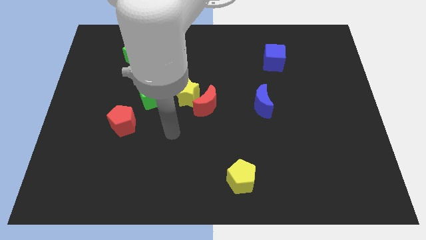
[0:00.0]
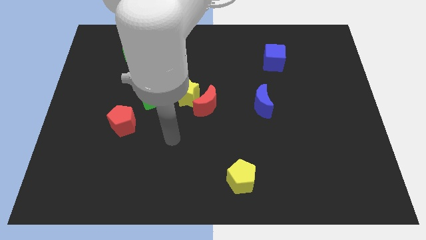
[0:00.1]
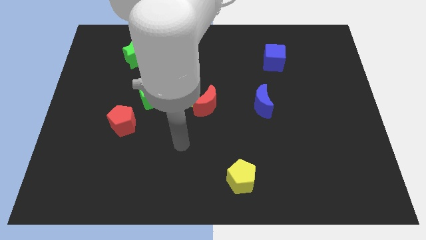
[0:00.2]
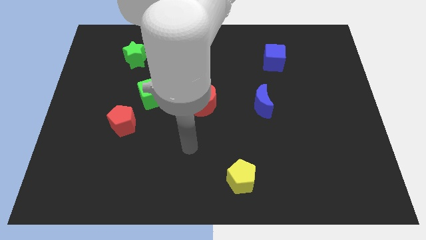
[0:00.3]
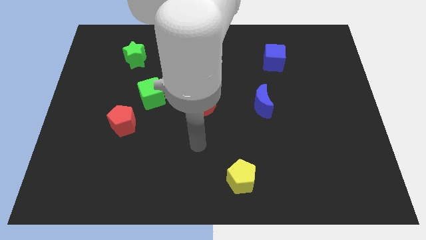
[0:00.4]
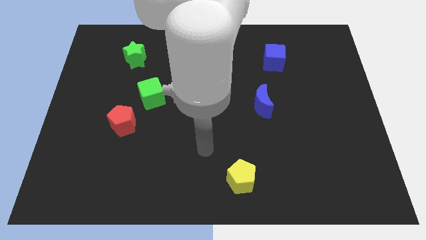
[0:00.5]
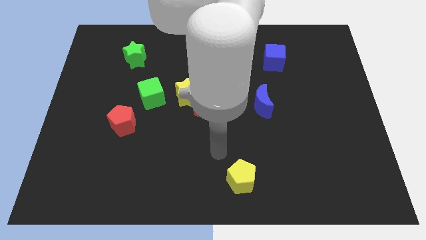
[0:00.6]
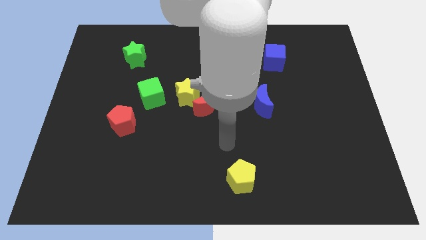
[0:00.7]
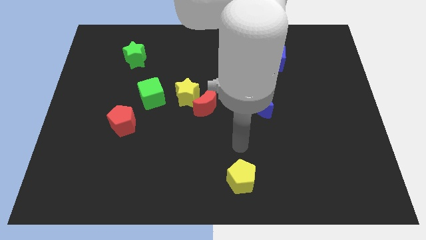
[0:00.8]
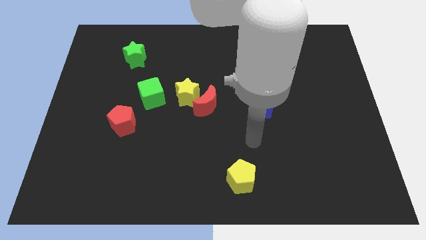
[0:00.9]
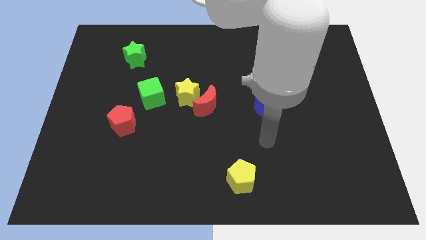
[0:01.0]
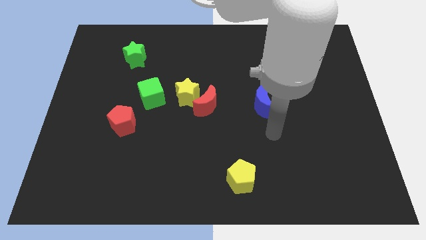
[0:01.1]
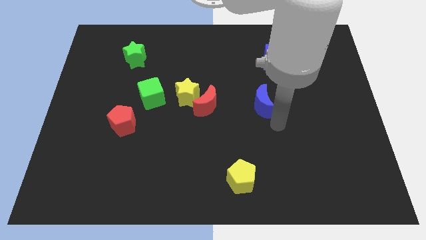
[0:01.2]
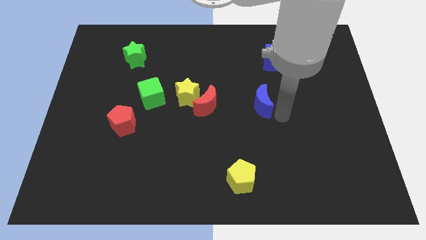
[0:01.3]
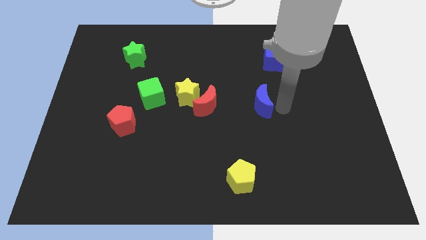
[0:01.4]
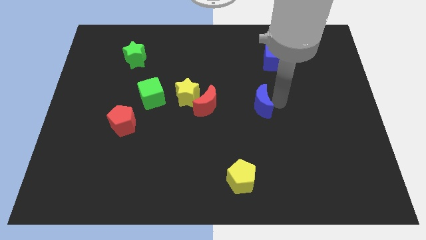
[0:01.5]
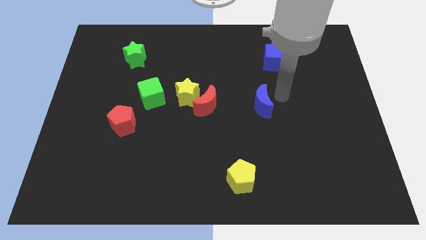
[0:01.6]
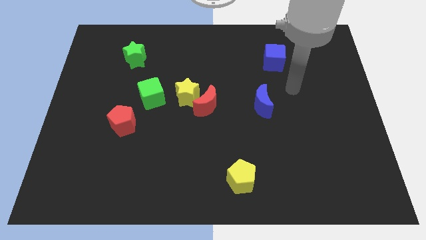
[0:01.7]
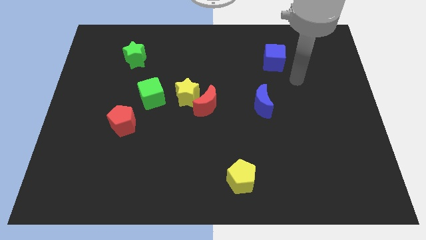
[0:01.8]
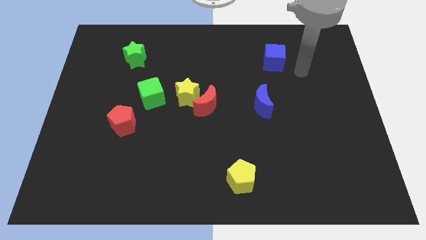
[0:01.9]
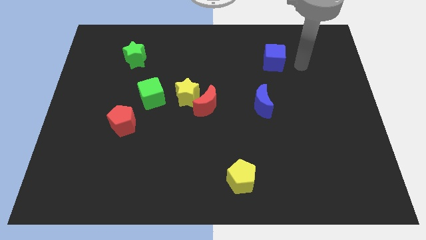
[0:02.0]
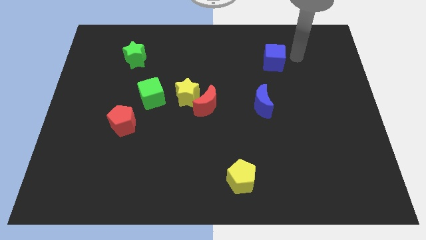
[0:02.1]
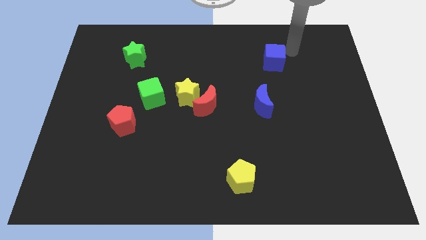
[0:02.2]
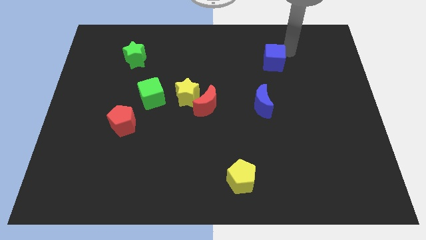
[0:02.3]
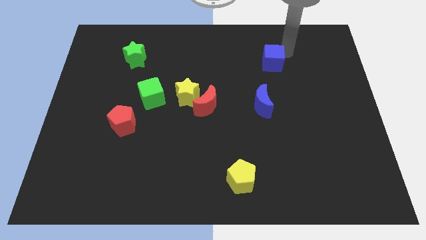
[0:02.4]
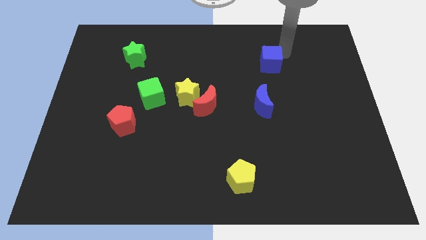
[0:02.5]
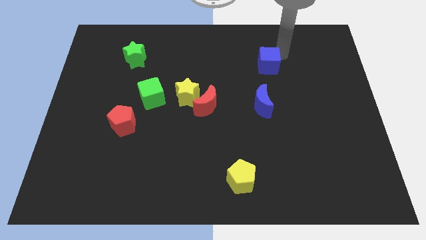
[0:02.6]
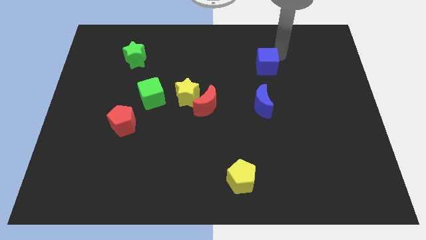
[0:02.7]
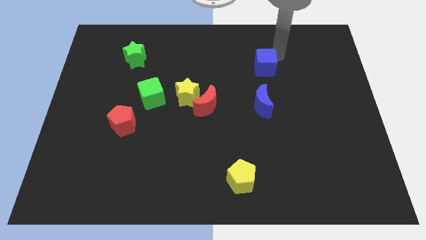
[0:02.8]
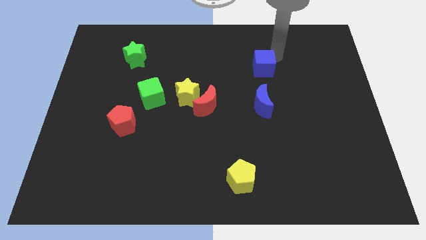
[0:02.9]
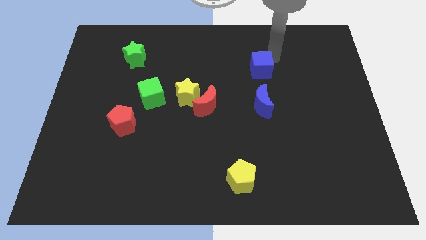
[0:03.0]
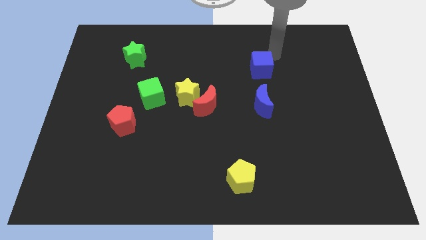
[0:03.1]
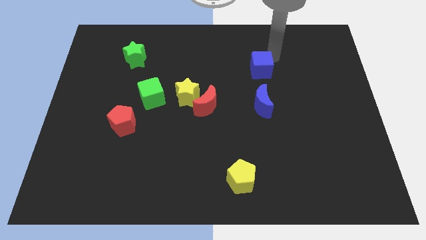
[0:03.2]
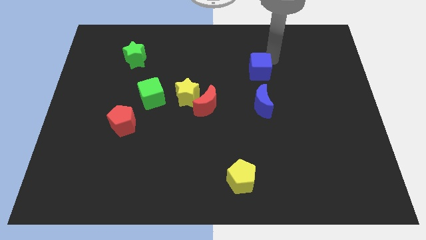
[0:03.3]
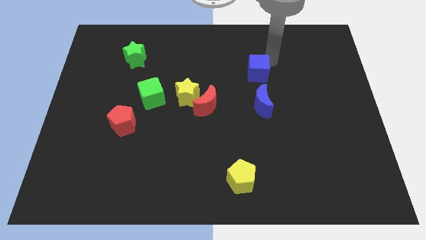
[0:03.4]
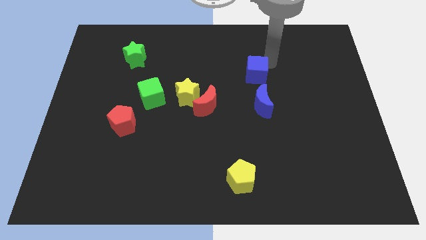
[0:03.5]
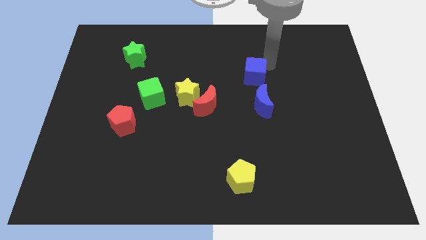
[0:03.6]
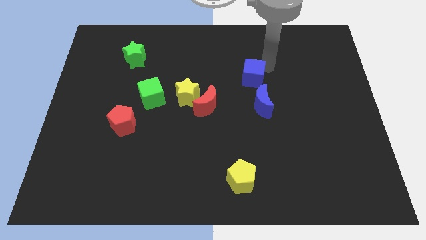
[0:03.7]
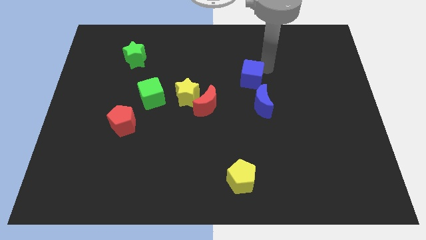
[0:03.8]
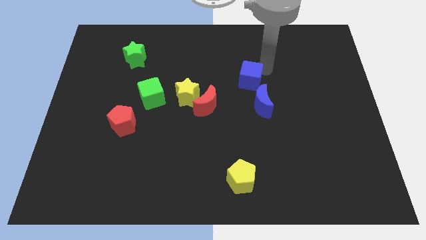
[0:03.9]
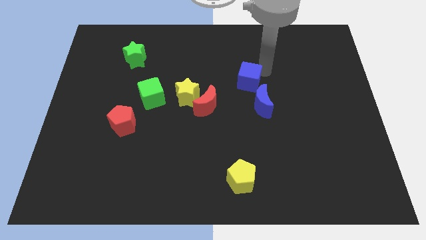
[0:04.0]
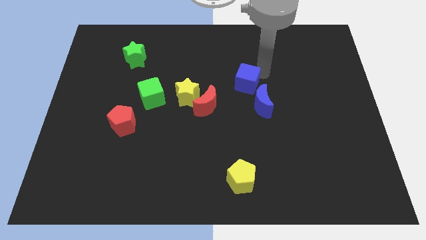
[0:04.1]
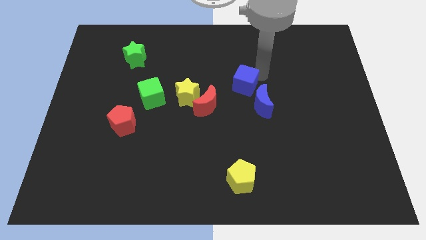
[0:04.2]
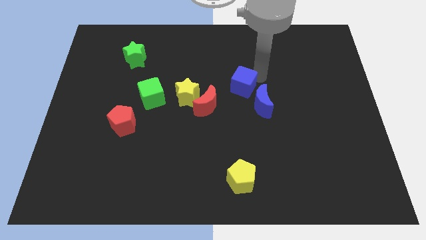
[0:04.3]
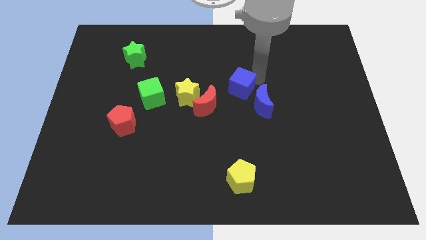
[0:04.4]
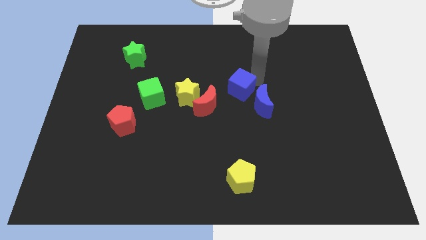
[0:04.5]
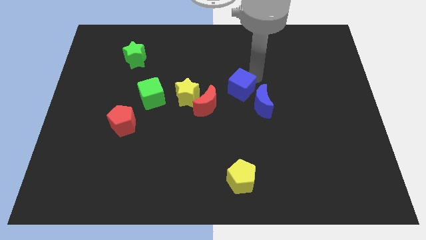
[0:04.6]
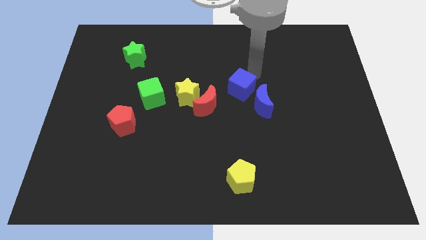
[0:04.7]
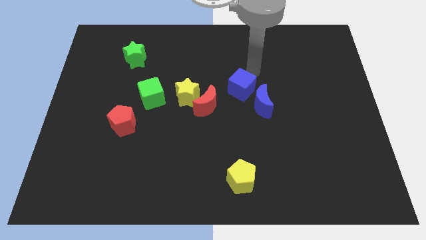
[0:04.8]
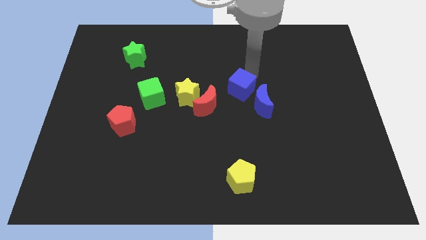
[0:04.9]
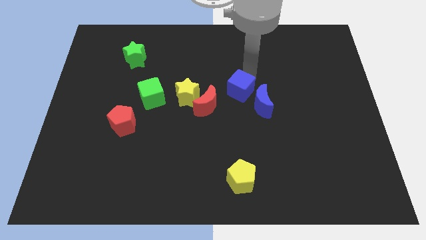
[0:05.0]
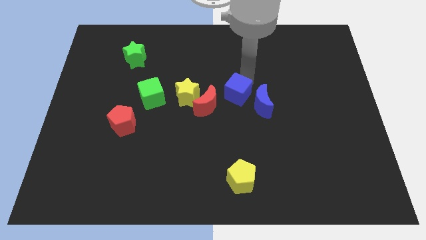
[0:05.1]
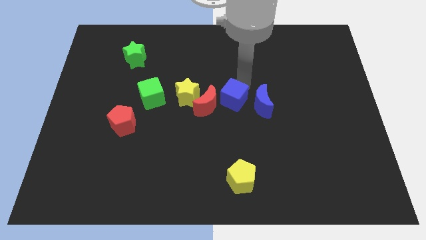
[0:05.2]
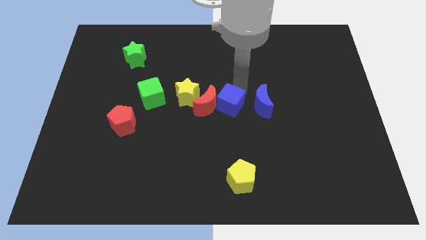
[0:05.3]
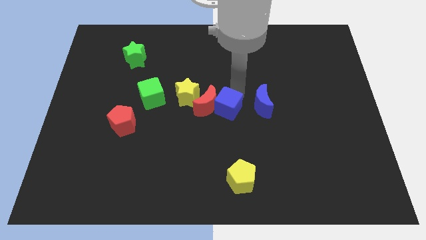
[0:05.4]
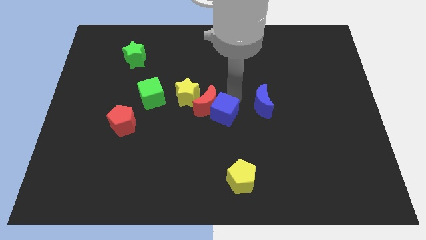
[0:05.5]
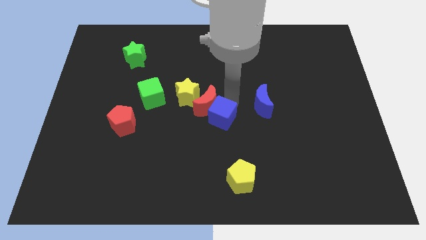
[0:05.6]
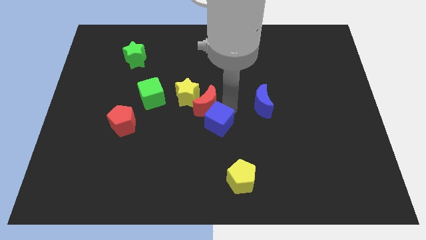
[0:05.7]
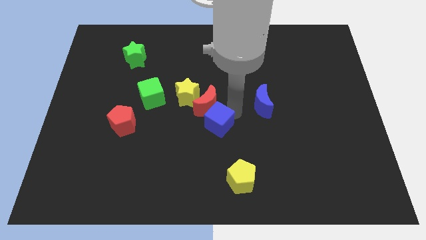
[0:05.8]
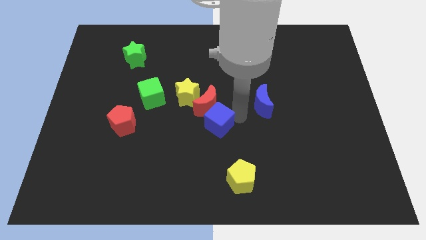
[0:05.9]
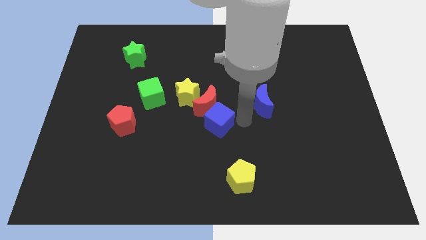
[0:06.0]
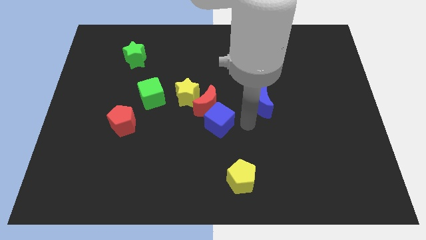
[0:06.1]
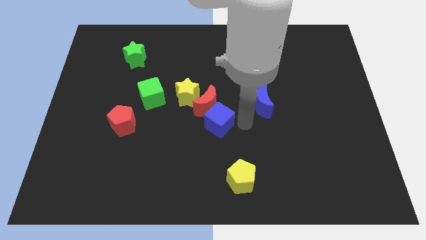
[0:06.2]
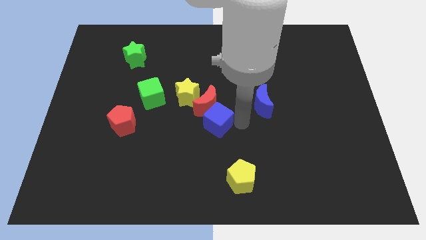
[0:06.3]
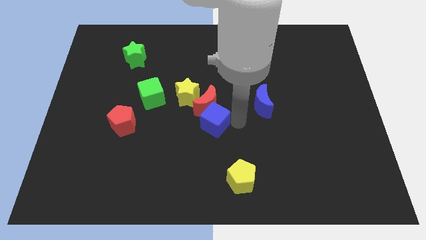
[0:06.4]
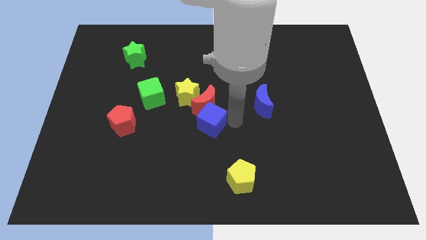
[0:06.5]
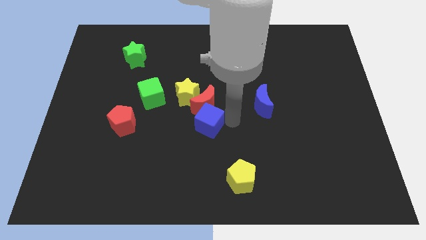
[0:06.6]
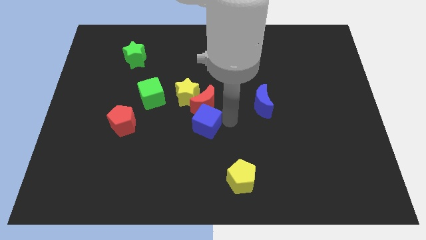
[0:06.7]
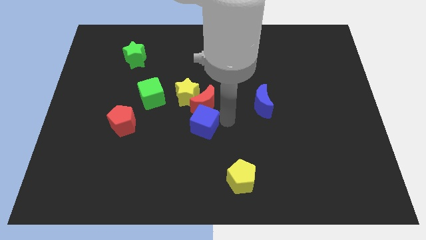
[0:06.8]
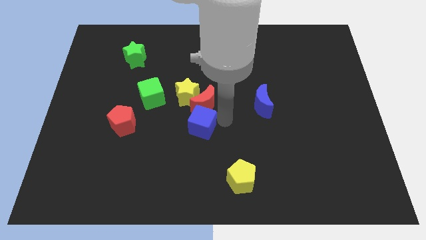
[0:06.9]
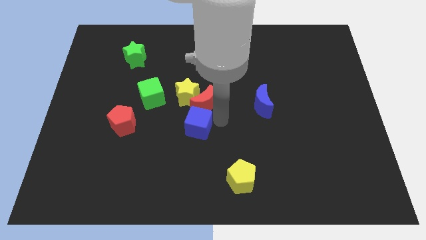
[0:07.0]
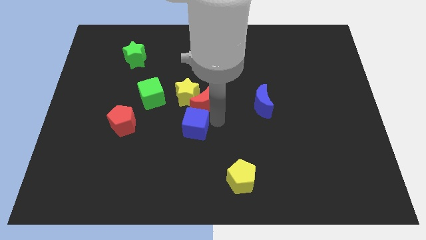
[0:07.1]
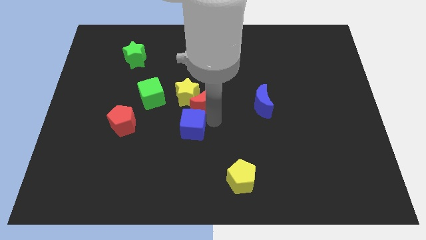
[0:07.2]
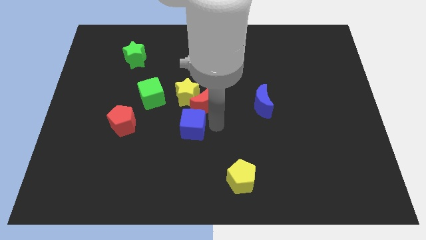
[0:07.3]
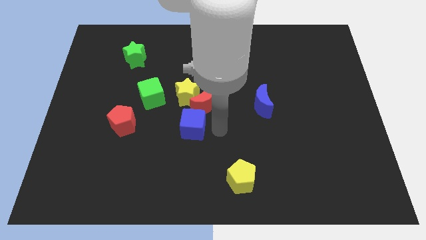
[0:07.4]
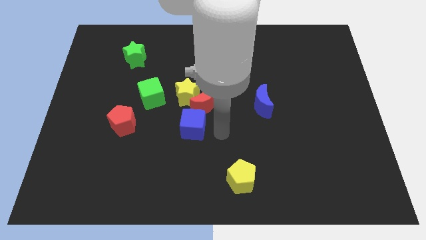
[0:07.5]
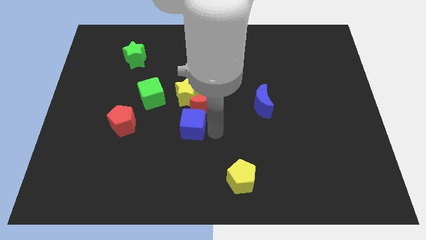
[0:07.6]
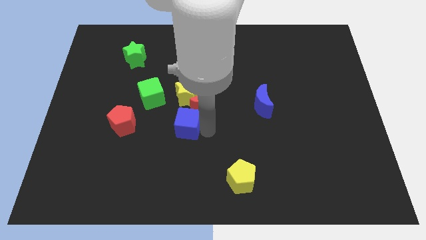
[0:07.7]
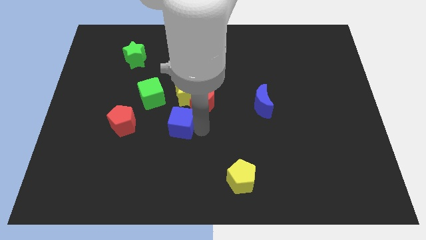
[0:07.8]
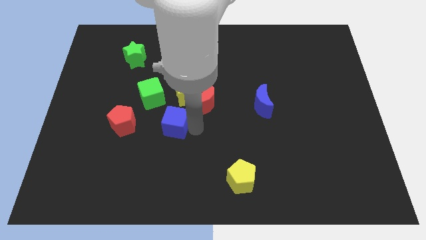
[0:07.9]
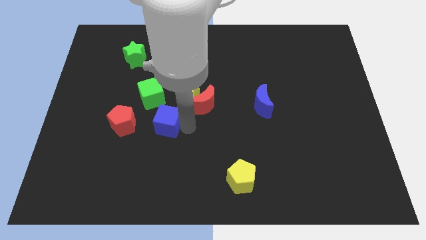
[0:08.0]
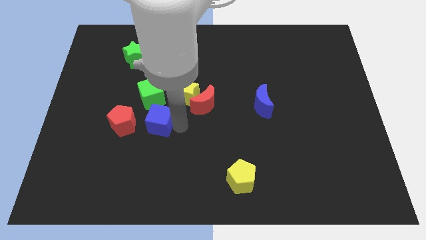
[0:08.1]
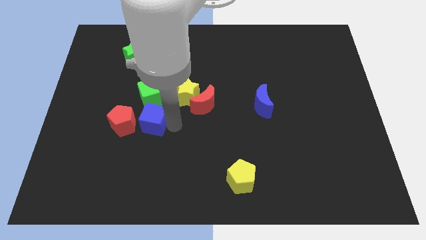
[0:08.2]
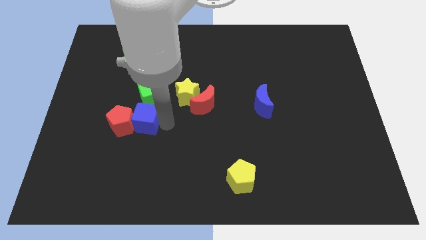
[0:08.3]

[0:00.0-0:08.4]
push the blue cube close to the red pentagon
